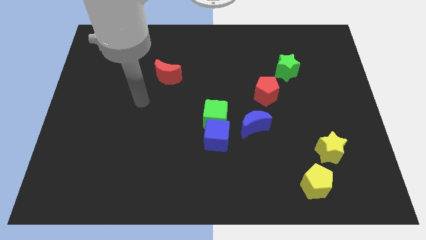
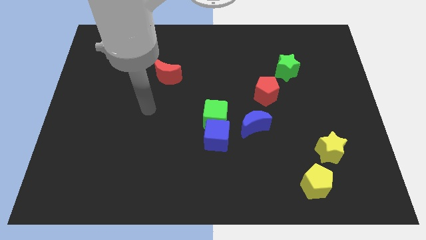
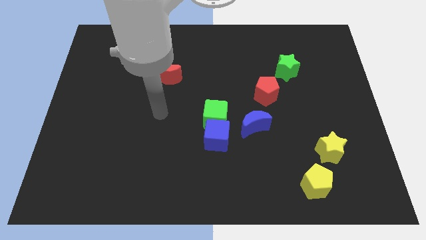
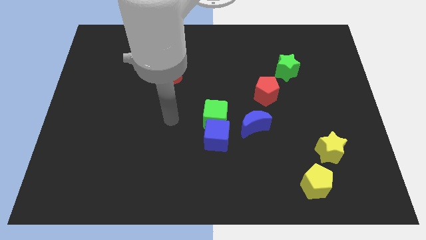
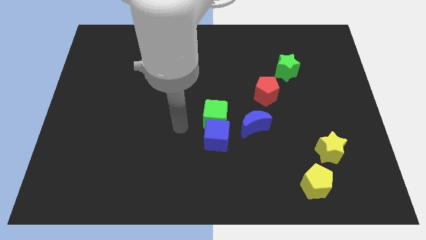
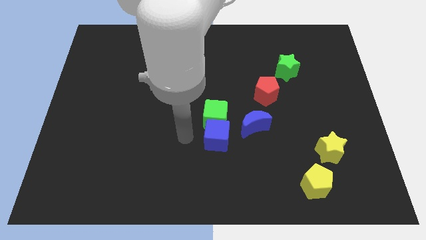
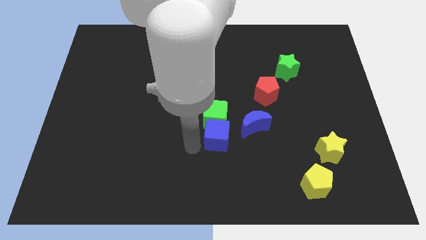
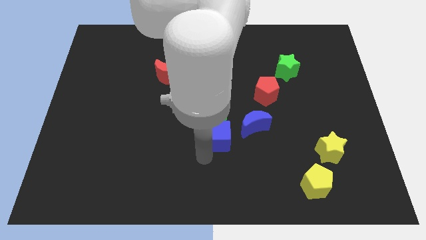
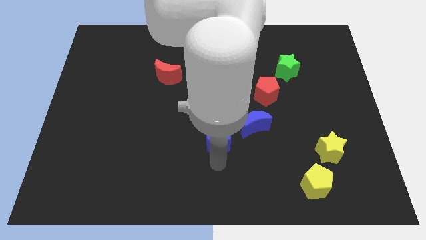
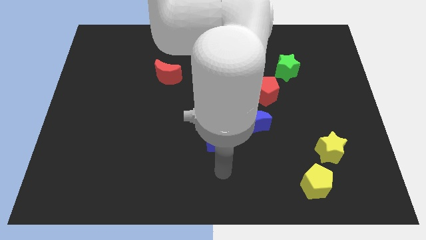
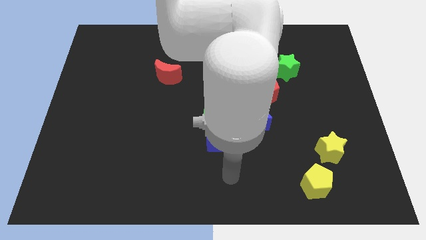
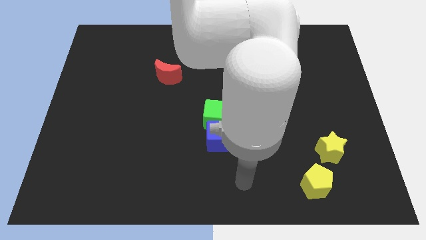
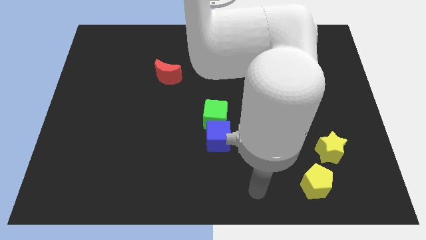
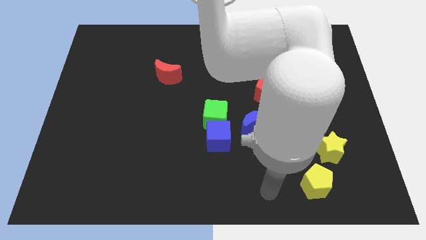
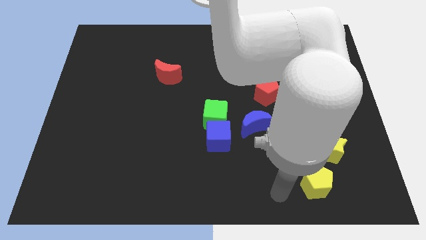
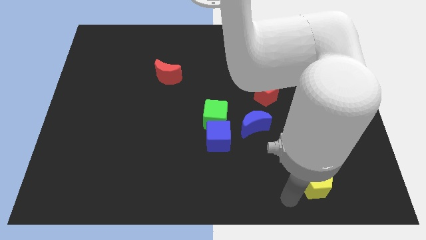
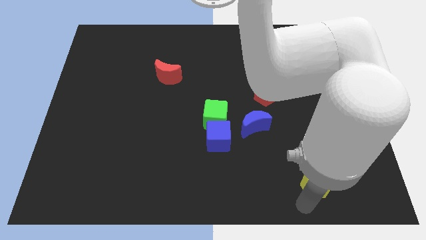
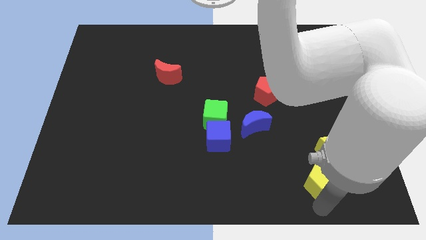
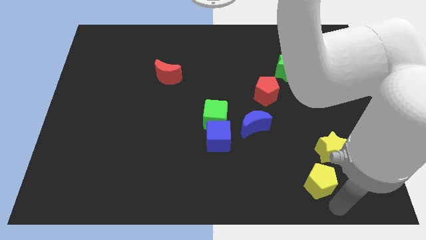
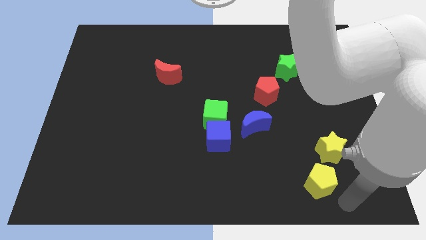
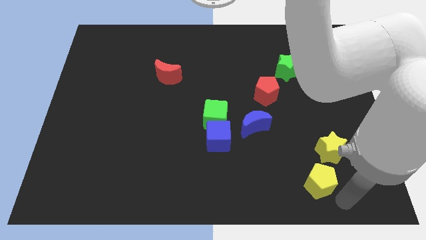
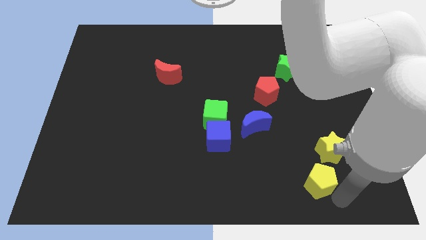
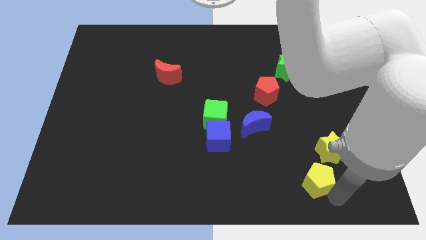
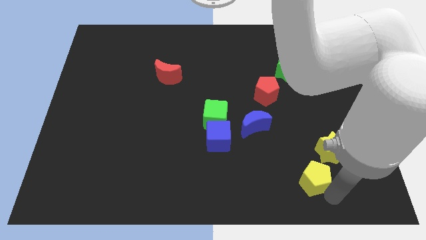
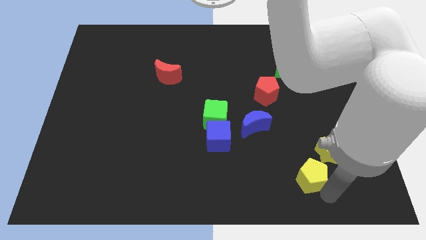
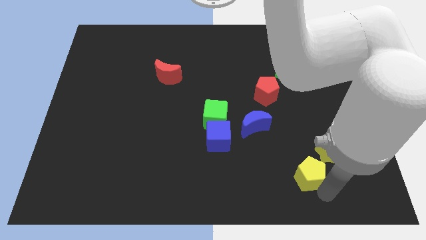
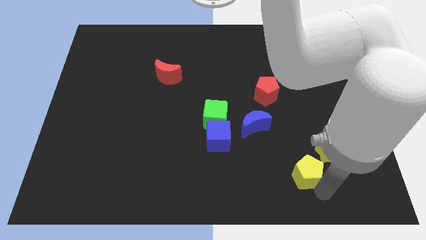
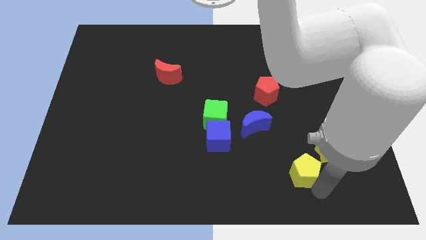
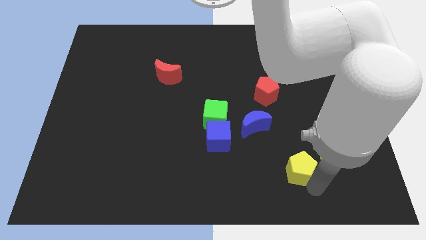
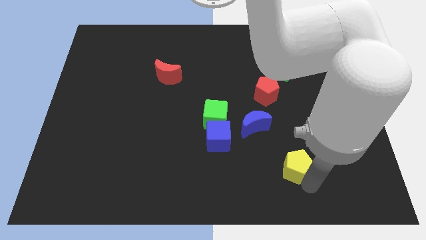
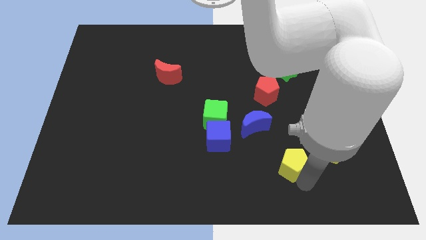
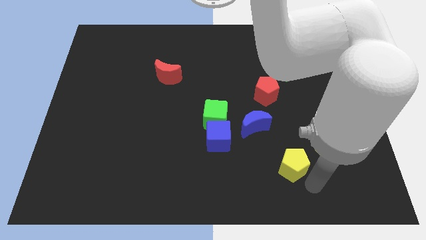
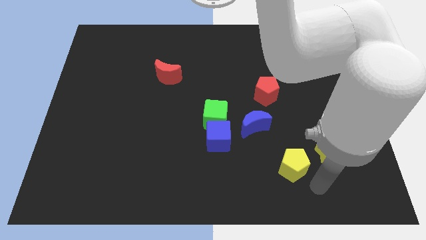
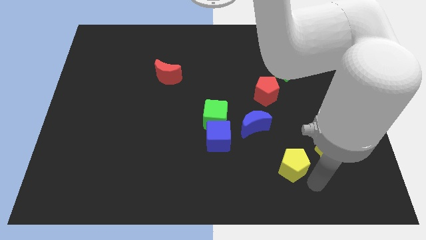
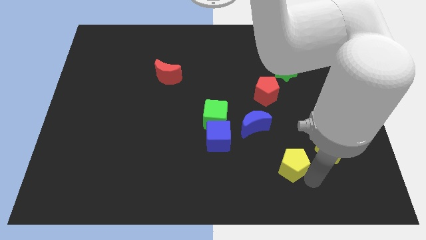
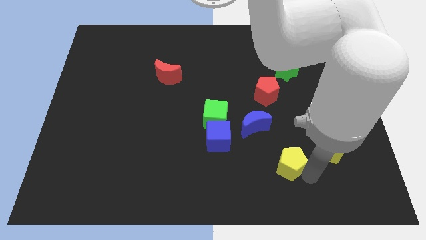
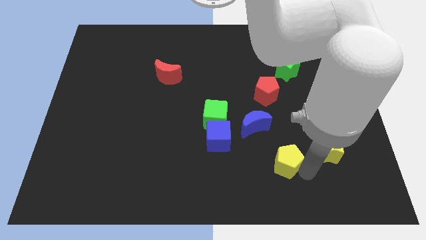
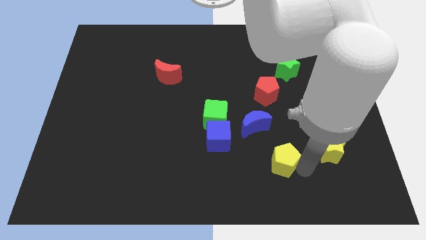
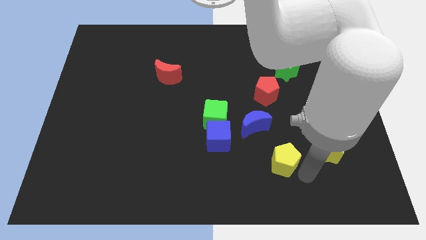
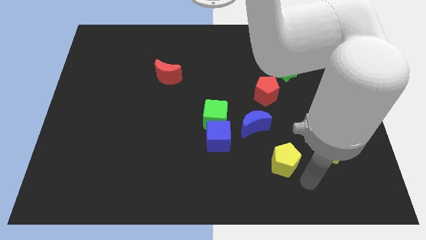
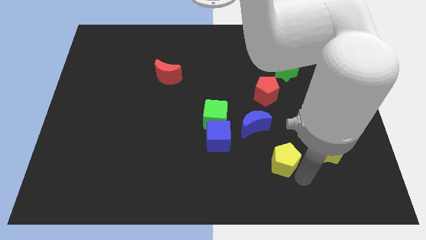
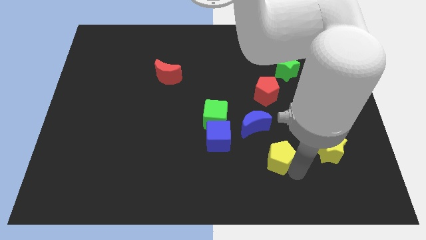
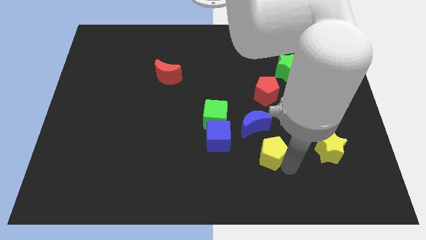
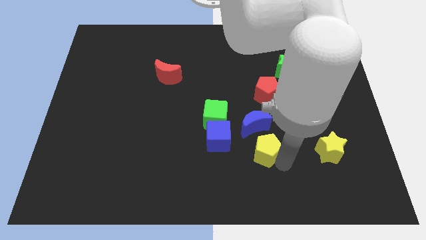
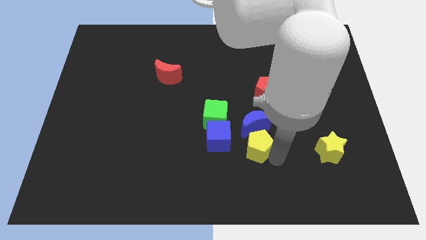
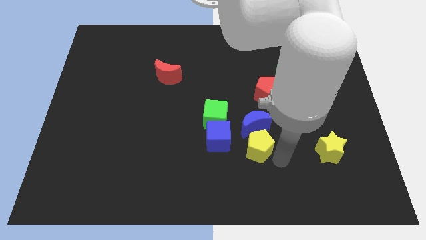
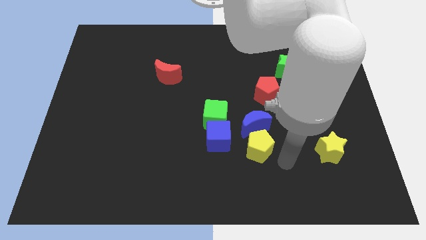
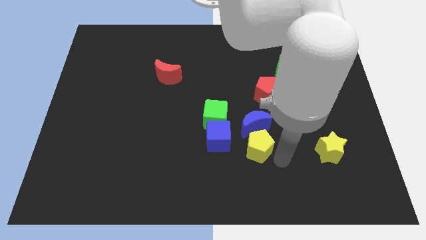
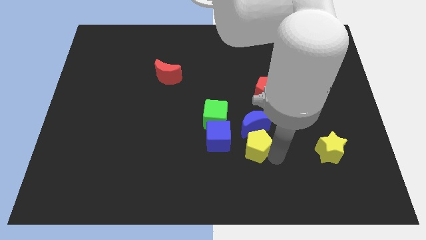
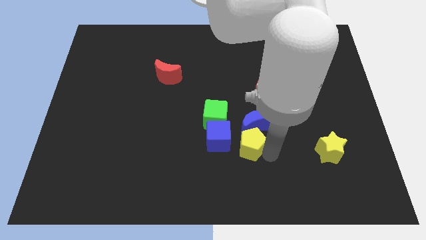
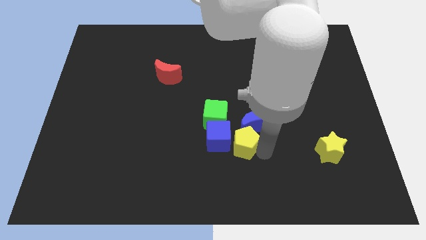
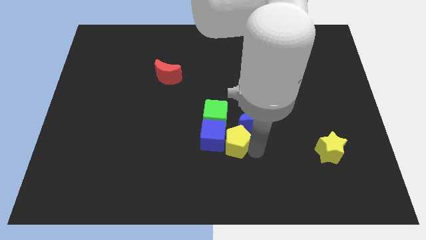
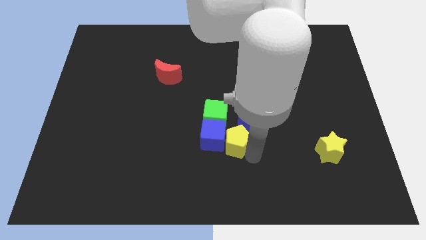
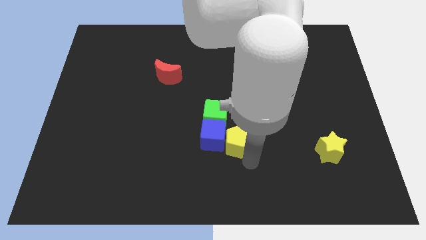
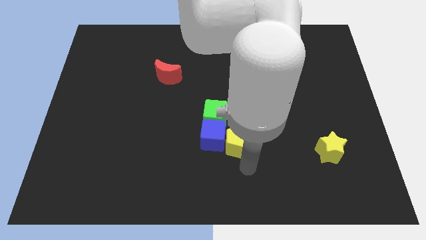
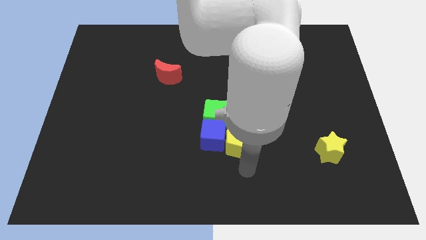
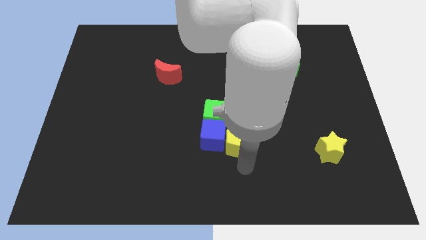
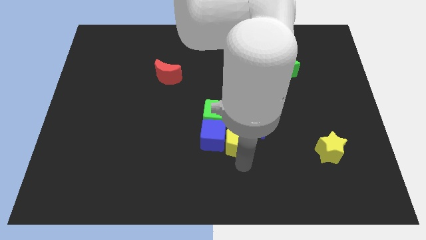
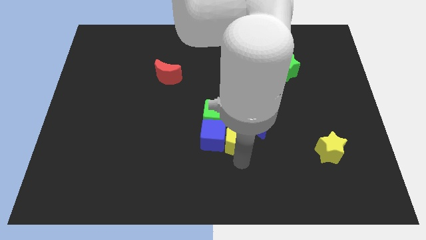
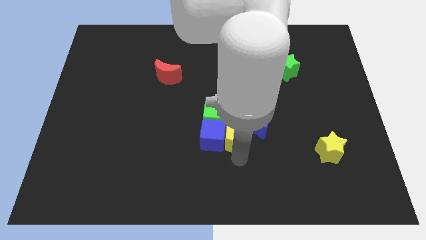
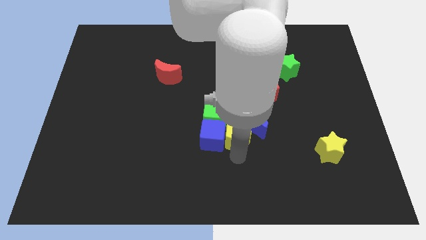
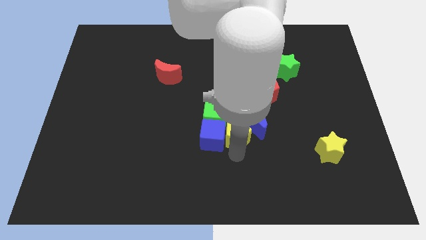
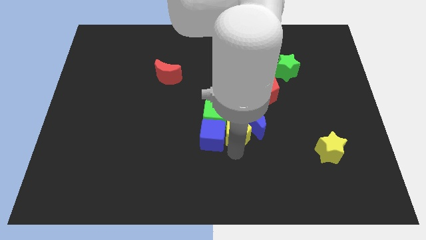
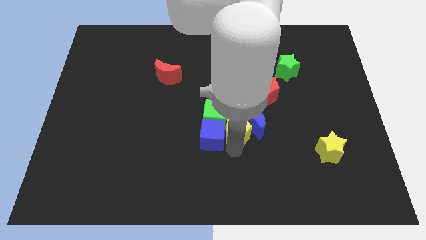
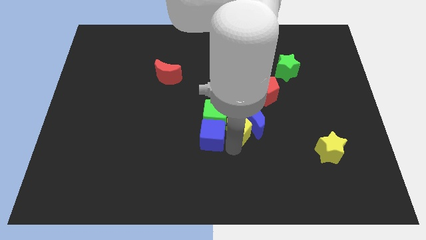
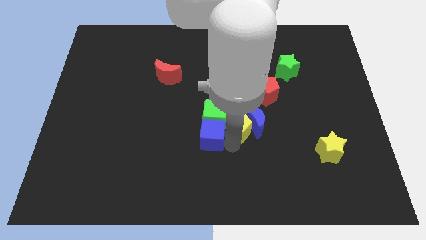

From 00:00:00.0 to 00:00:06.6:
move the yellow pentagon to the green cube
